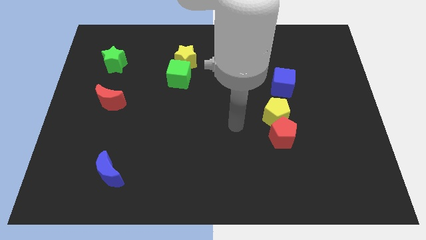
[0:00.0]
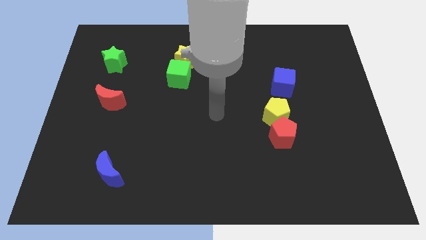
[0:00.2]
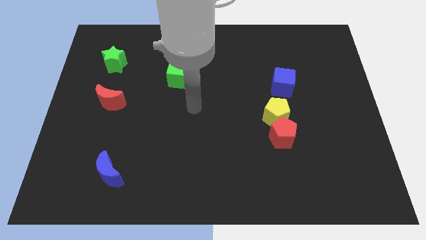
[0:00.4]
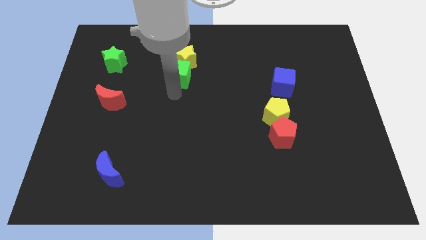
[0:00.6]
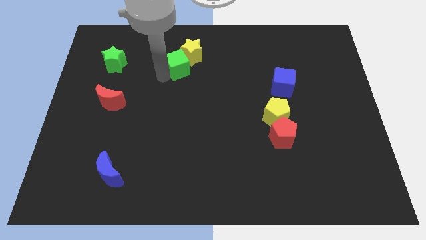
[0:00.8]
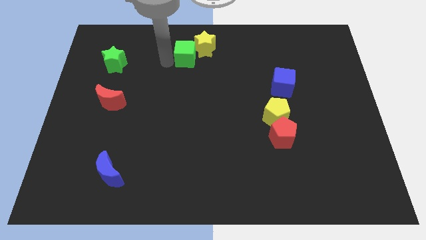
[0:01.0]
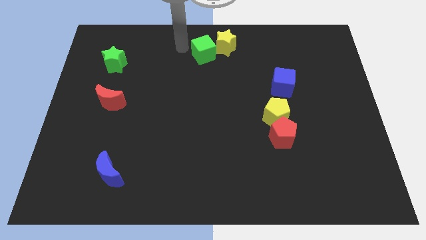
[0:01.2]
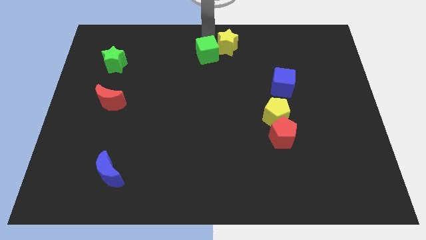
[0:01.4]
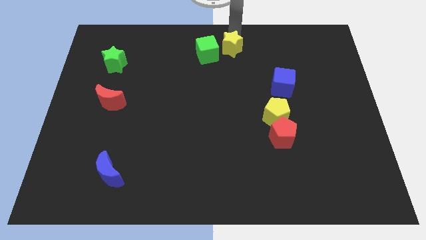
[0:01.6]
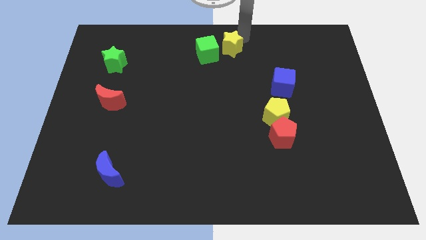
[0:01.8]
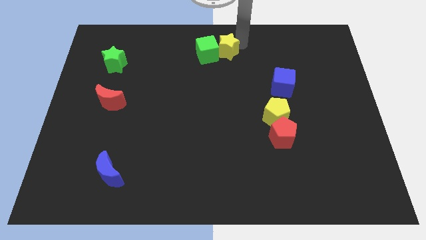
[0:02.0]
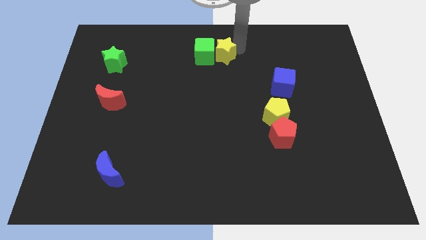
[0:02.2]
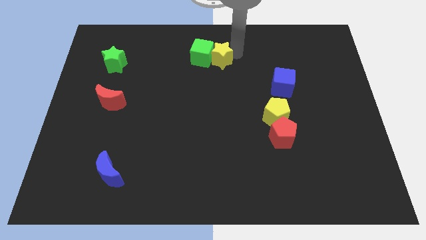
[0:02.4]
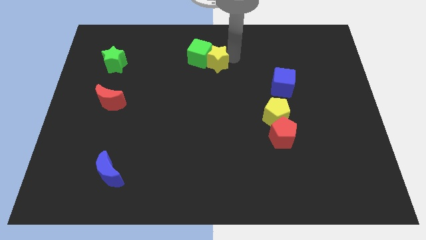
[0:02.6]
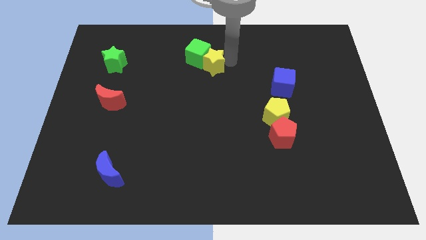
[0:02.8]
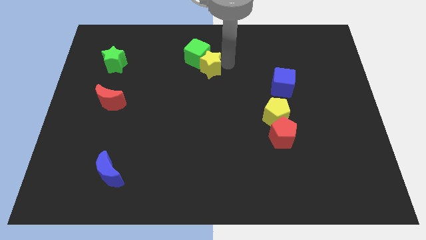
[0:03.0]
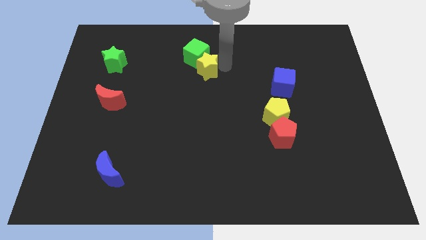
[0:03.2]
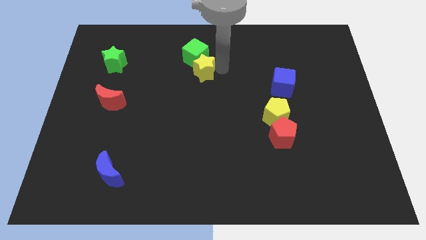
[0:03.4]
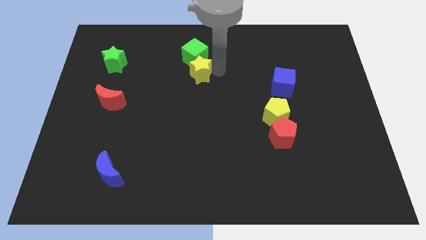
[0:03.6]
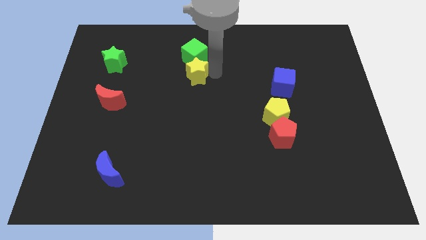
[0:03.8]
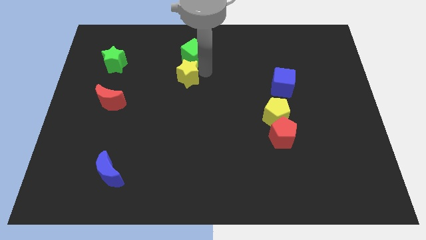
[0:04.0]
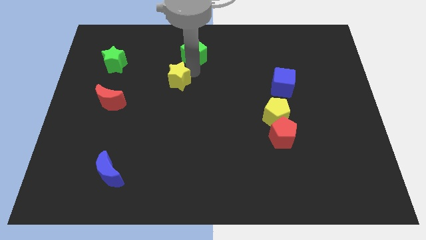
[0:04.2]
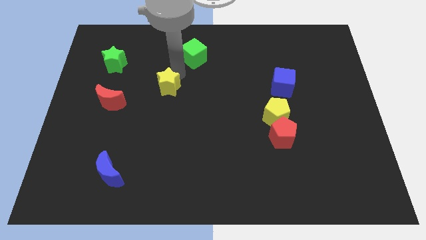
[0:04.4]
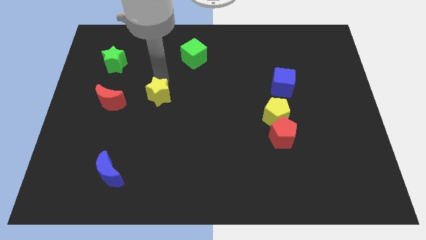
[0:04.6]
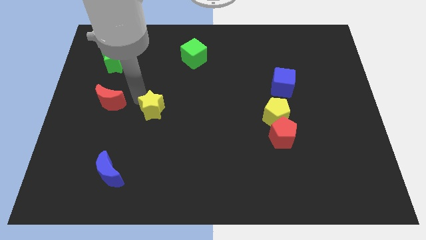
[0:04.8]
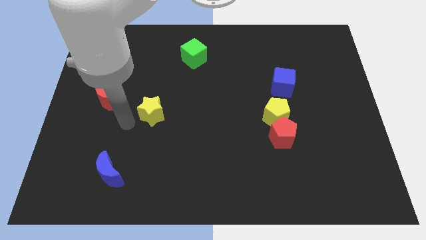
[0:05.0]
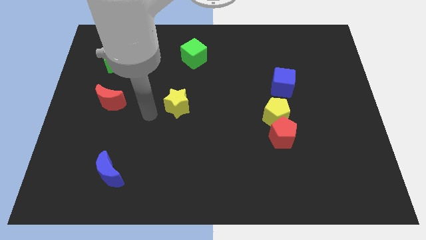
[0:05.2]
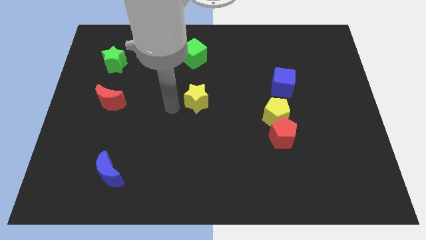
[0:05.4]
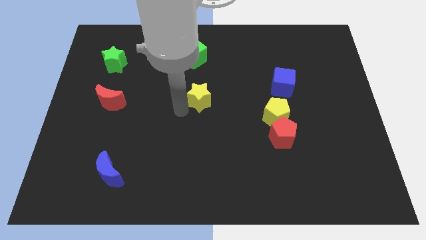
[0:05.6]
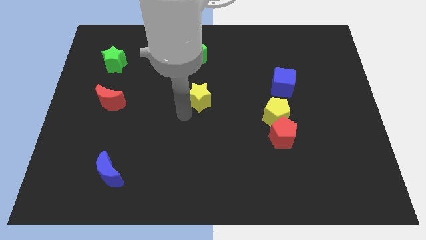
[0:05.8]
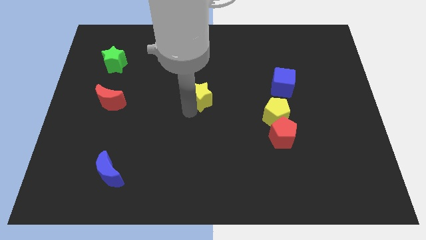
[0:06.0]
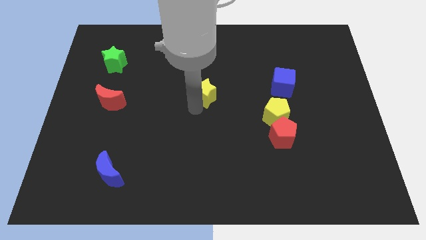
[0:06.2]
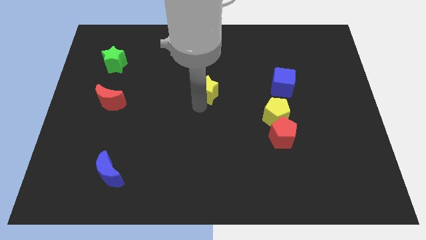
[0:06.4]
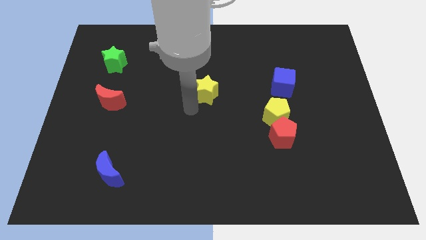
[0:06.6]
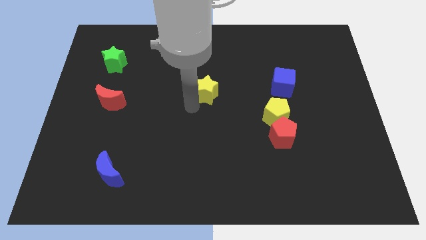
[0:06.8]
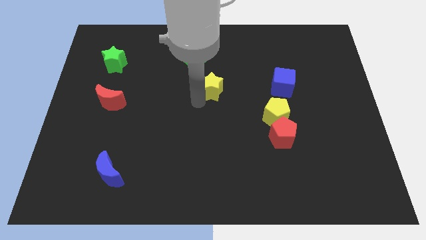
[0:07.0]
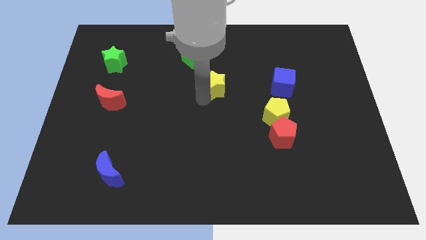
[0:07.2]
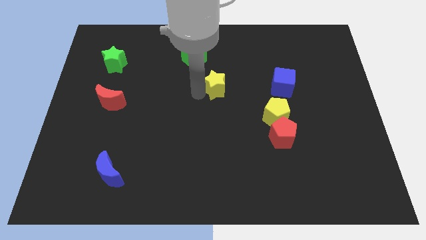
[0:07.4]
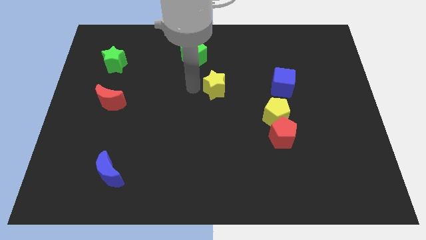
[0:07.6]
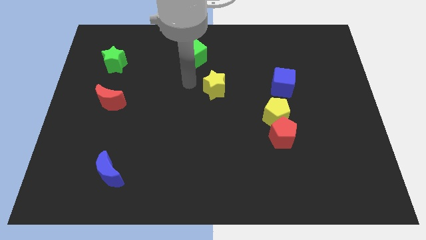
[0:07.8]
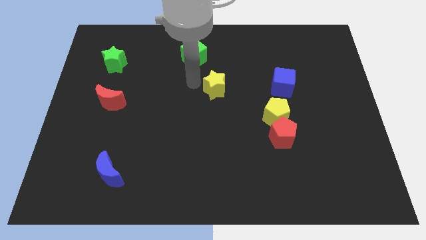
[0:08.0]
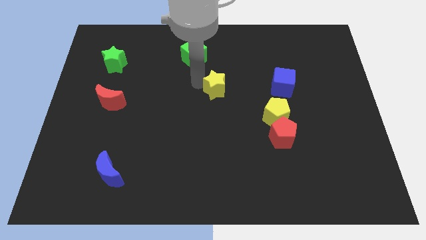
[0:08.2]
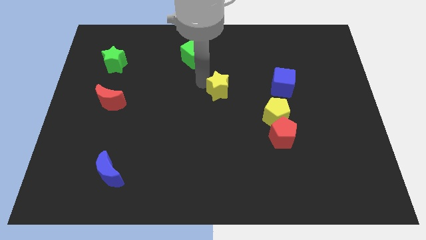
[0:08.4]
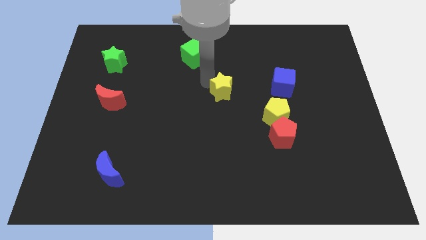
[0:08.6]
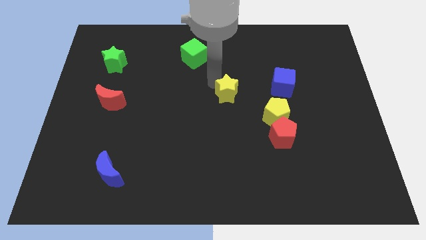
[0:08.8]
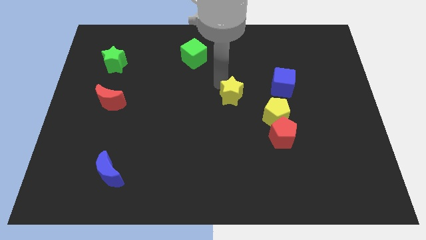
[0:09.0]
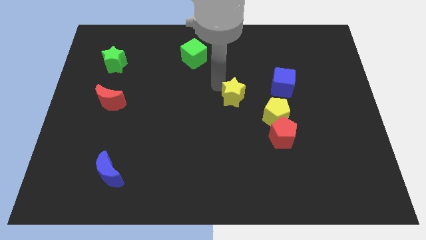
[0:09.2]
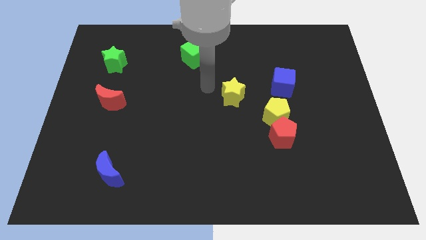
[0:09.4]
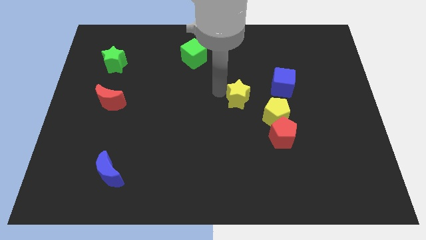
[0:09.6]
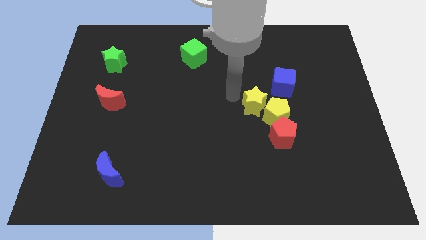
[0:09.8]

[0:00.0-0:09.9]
put the yellow star next to the yellow pentagon

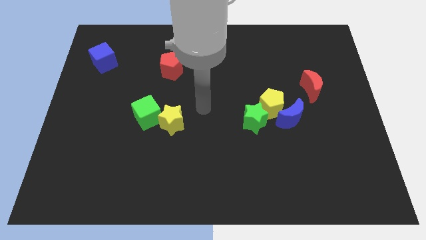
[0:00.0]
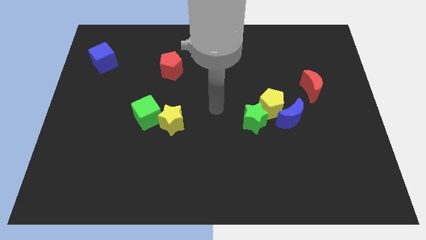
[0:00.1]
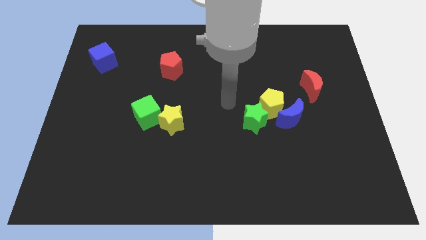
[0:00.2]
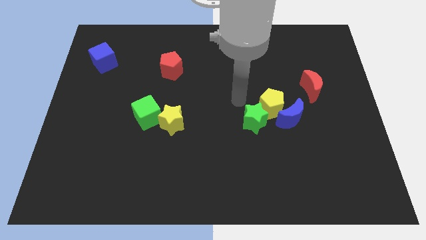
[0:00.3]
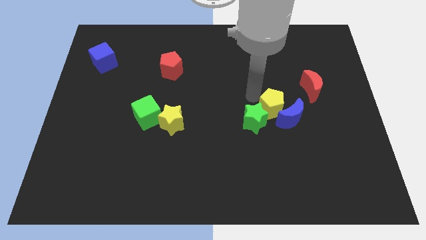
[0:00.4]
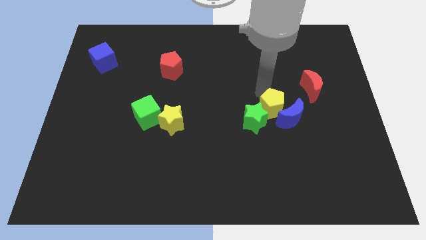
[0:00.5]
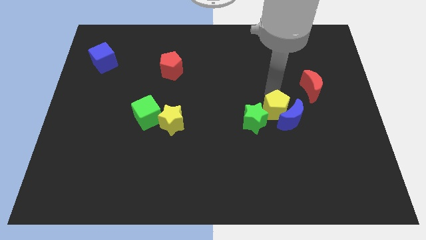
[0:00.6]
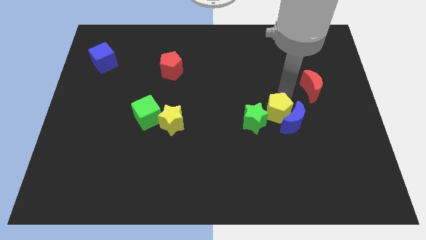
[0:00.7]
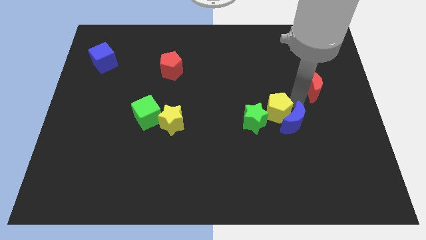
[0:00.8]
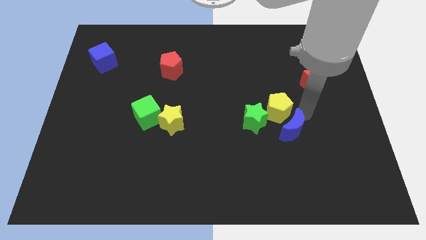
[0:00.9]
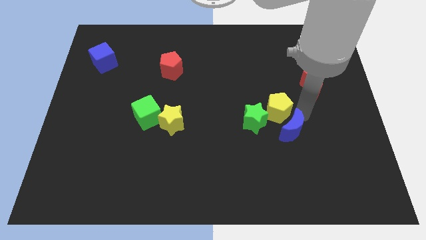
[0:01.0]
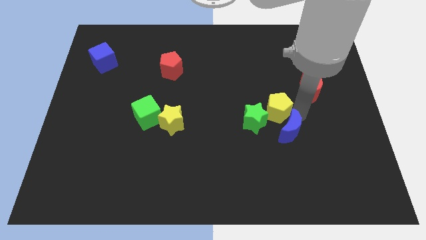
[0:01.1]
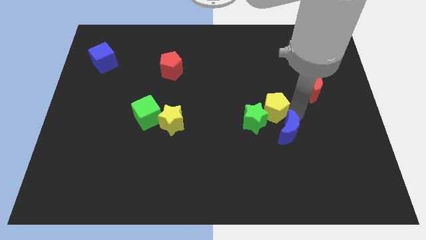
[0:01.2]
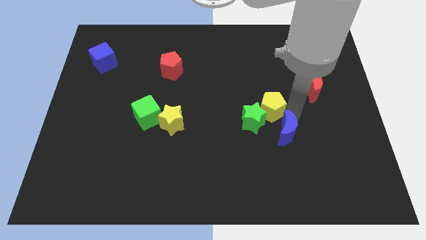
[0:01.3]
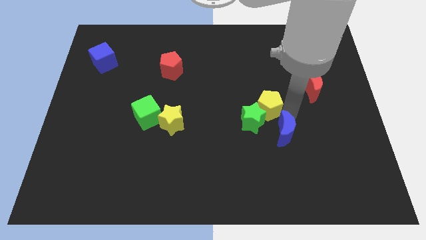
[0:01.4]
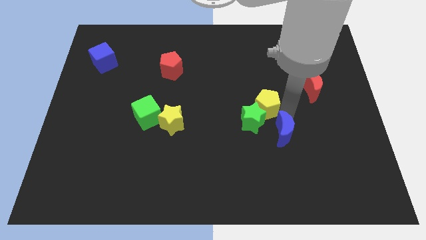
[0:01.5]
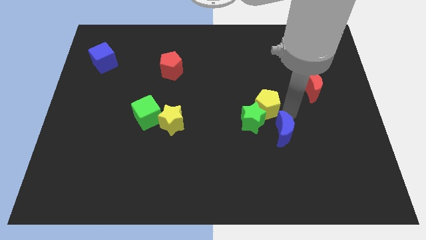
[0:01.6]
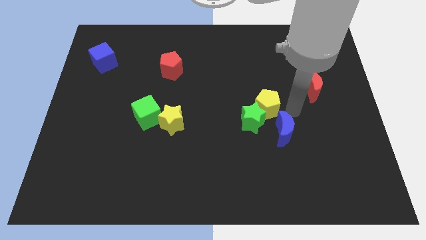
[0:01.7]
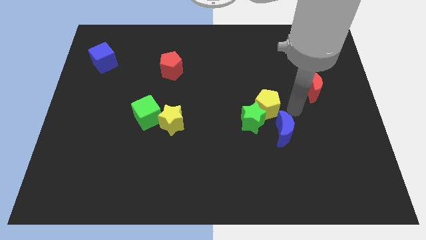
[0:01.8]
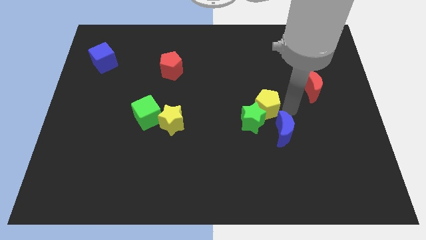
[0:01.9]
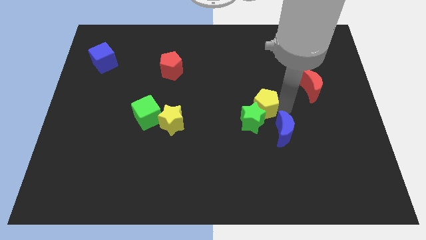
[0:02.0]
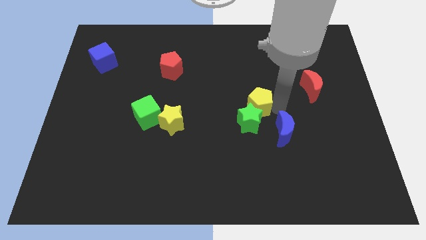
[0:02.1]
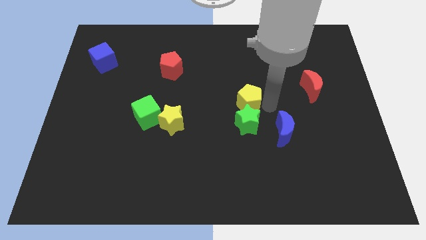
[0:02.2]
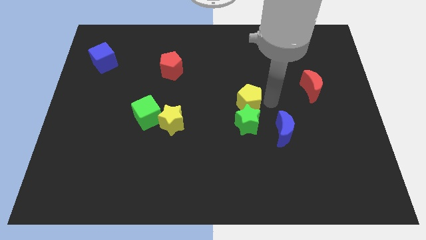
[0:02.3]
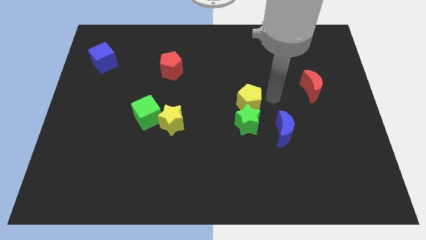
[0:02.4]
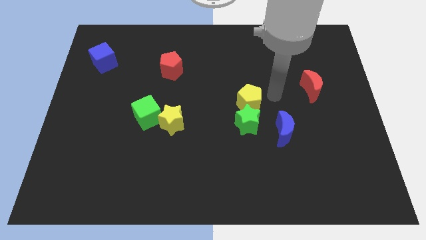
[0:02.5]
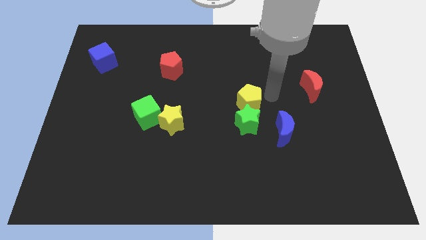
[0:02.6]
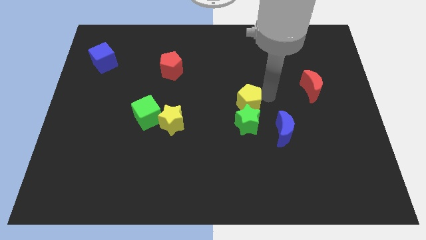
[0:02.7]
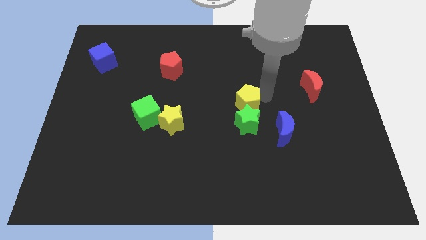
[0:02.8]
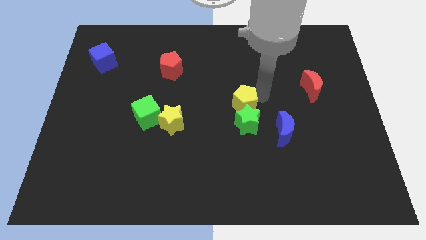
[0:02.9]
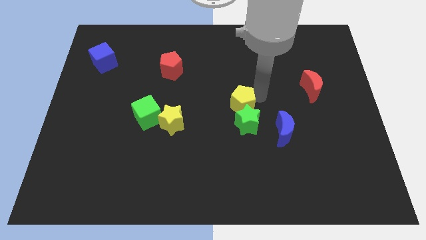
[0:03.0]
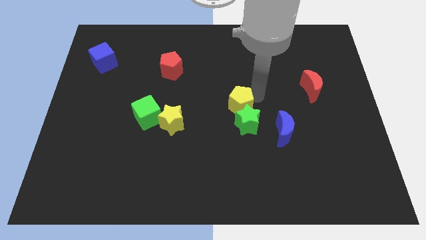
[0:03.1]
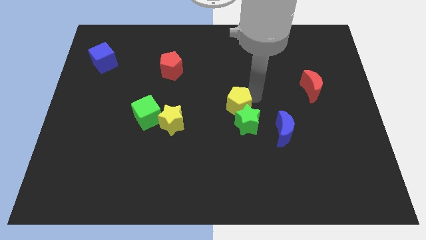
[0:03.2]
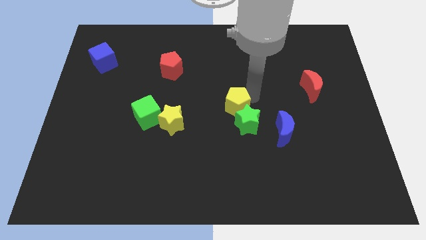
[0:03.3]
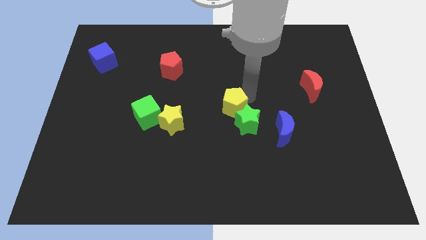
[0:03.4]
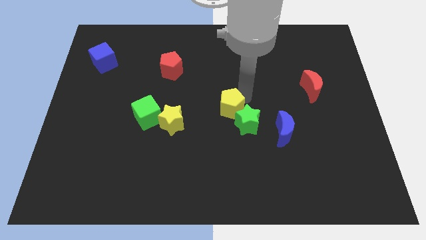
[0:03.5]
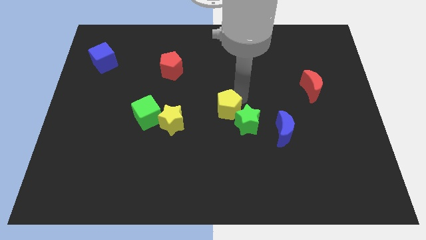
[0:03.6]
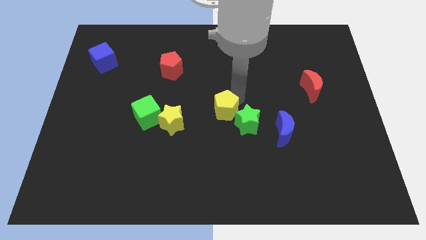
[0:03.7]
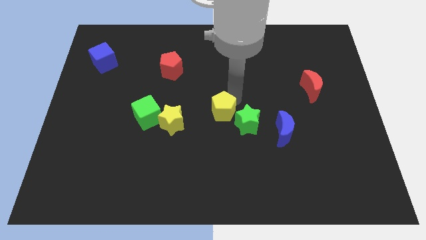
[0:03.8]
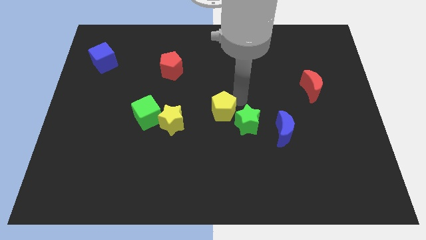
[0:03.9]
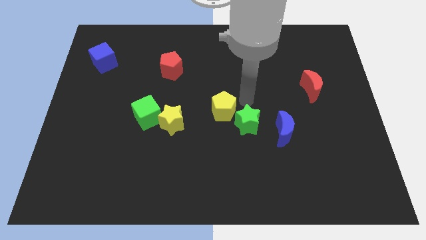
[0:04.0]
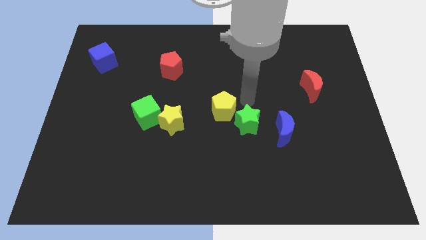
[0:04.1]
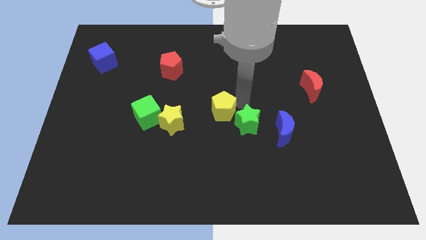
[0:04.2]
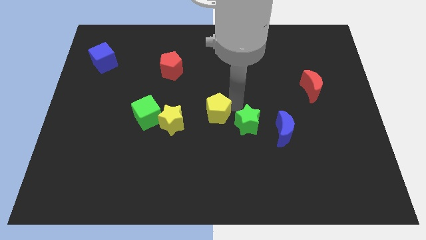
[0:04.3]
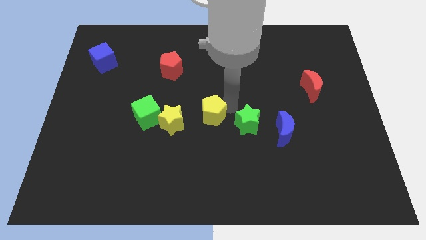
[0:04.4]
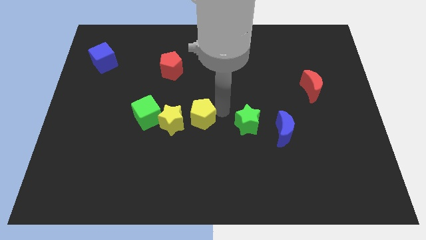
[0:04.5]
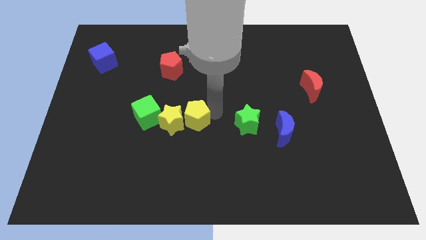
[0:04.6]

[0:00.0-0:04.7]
put the yellow pentagon next to the yellow star
